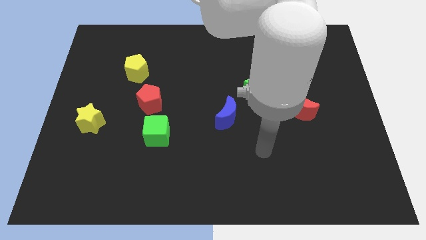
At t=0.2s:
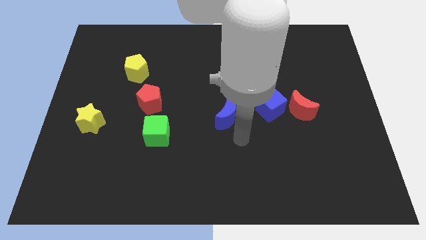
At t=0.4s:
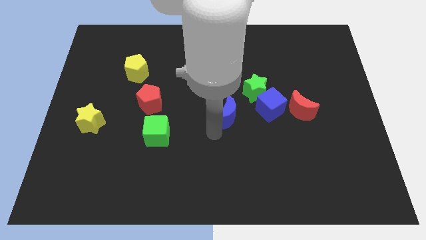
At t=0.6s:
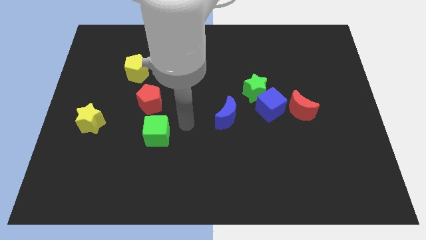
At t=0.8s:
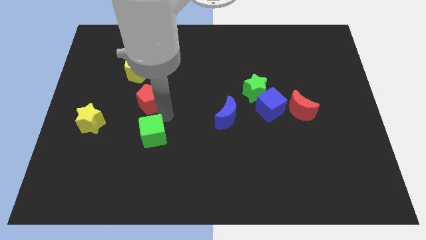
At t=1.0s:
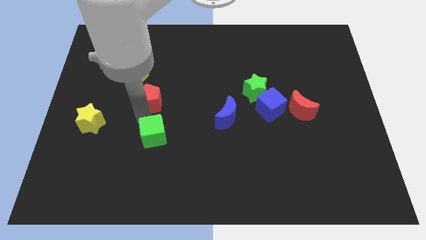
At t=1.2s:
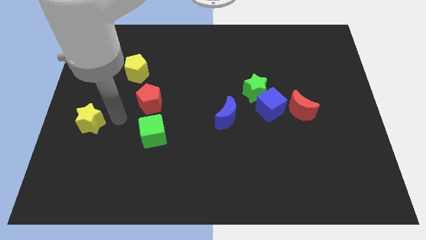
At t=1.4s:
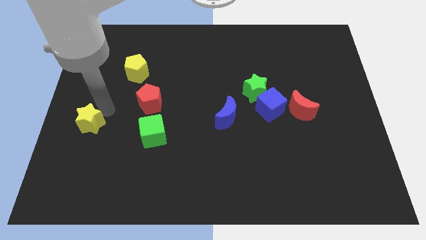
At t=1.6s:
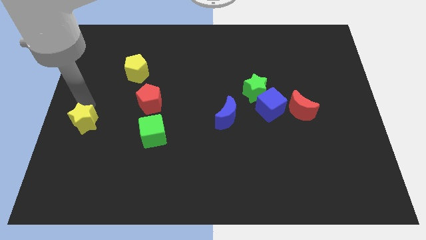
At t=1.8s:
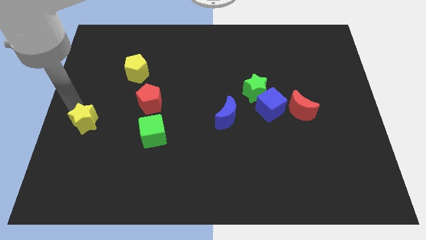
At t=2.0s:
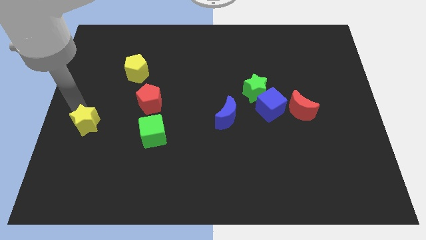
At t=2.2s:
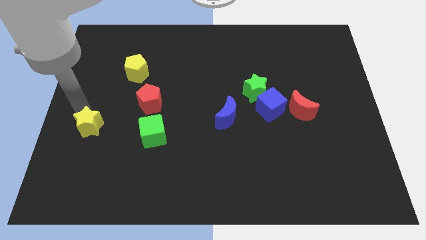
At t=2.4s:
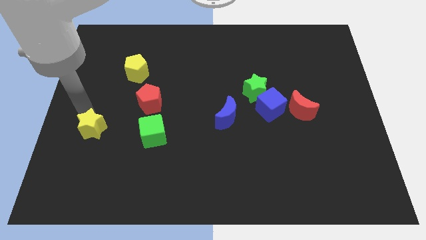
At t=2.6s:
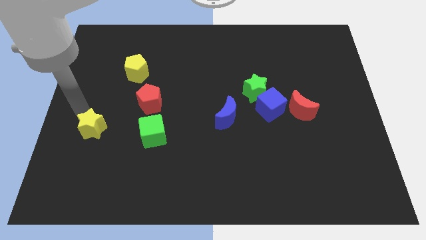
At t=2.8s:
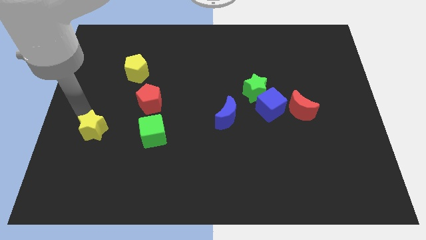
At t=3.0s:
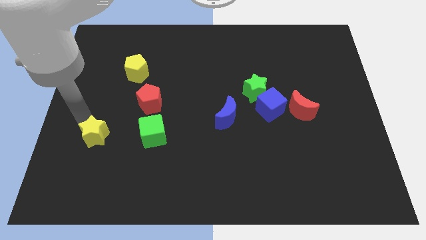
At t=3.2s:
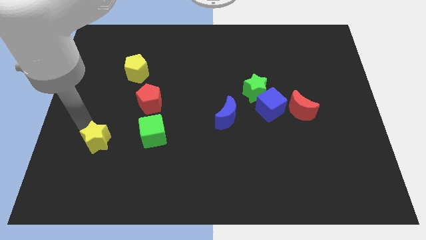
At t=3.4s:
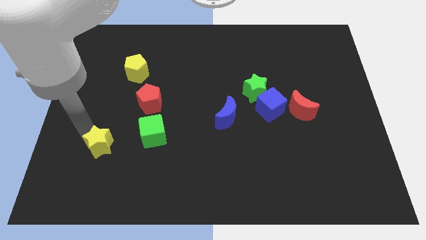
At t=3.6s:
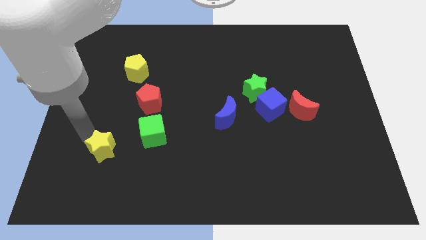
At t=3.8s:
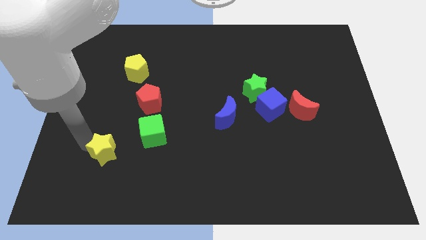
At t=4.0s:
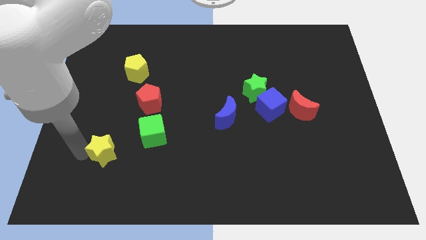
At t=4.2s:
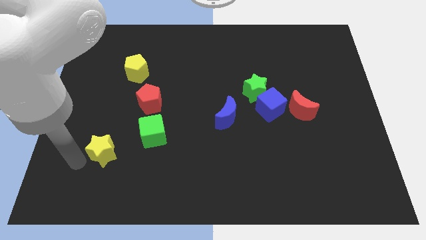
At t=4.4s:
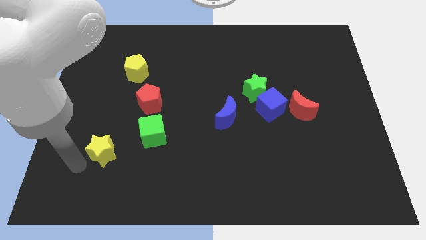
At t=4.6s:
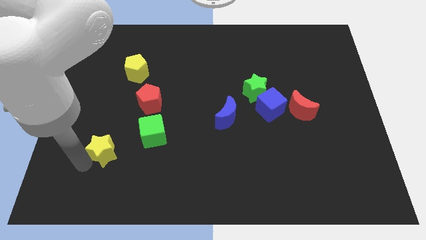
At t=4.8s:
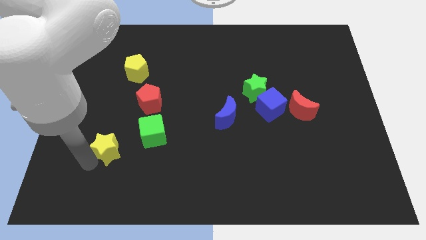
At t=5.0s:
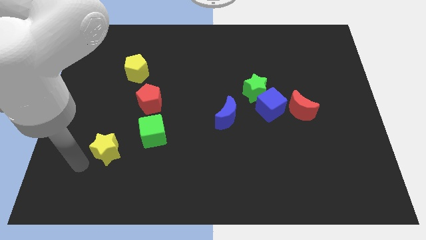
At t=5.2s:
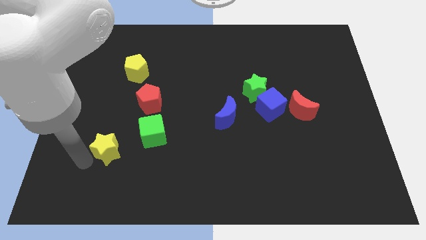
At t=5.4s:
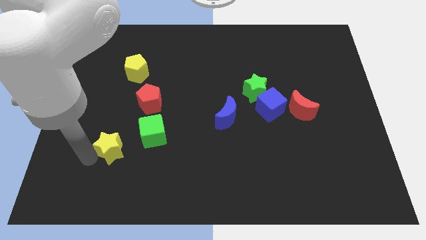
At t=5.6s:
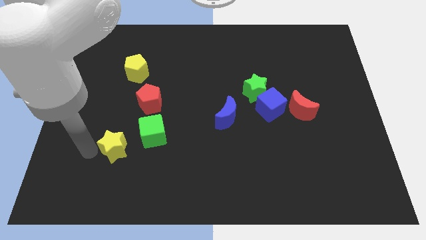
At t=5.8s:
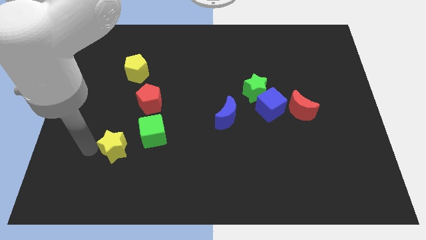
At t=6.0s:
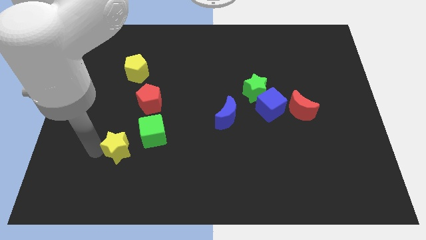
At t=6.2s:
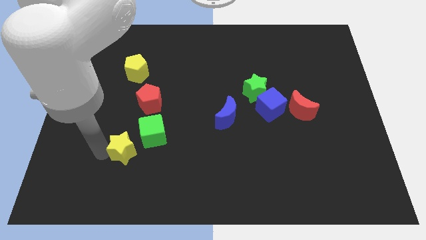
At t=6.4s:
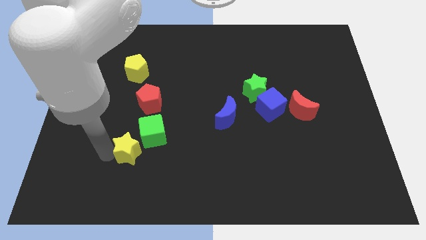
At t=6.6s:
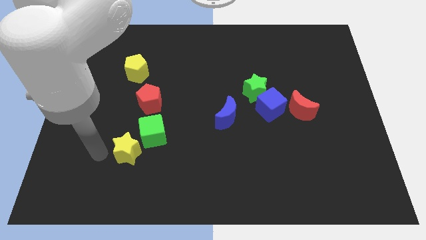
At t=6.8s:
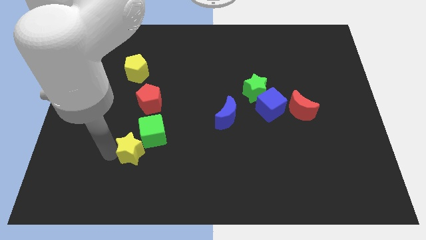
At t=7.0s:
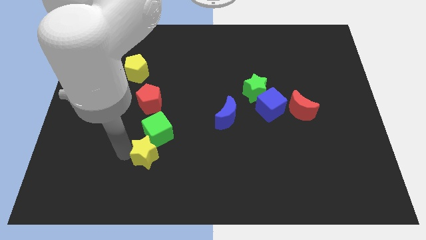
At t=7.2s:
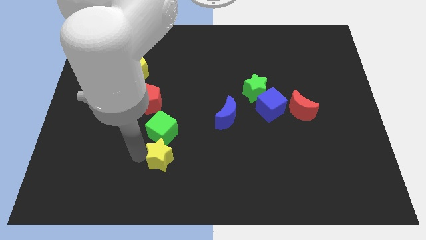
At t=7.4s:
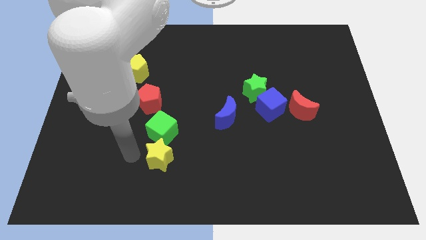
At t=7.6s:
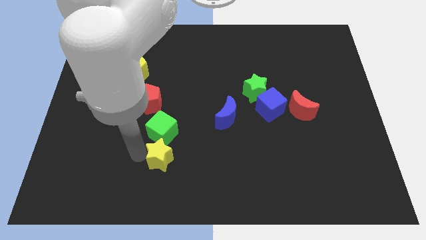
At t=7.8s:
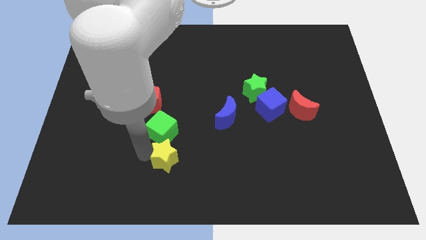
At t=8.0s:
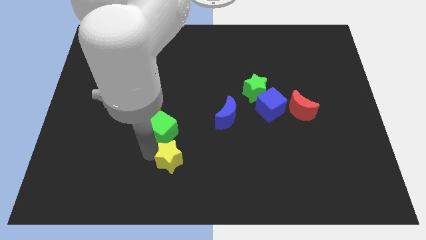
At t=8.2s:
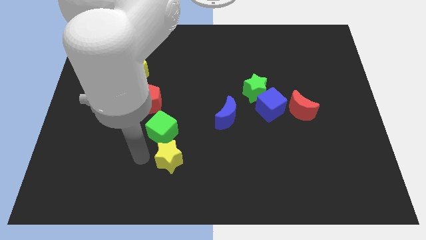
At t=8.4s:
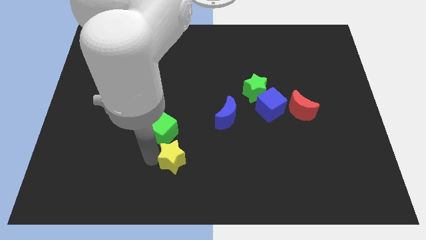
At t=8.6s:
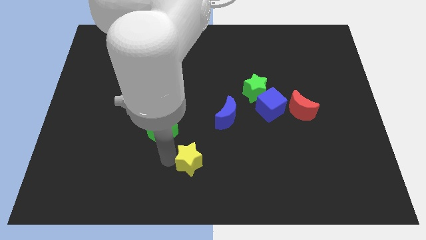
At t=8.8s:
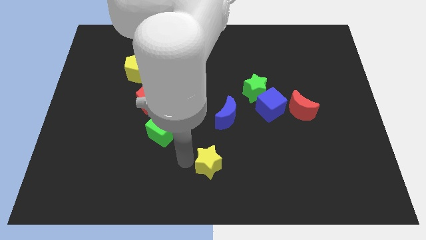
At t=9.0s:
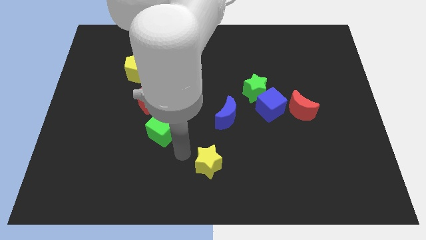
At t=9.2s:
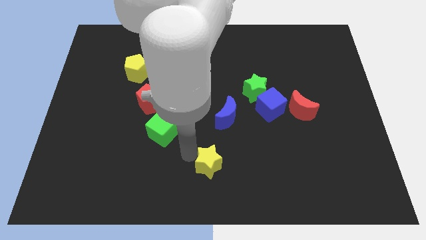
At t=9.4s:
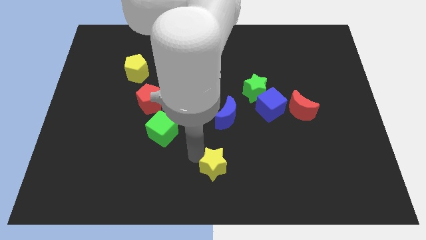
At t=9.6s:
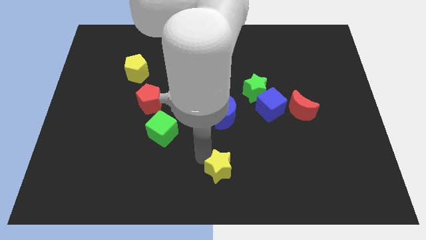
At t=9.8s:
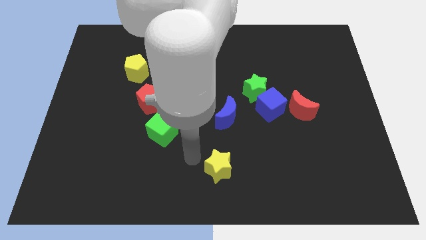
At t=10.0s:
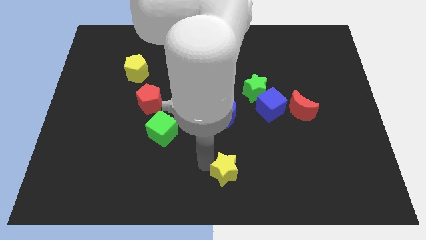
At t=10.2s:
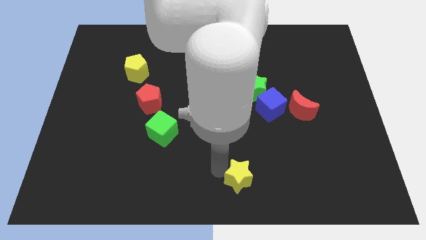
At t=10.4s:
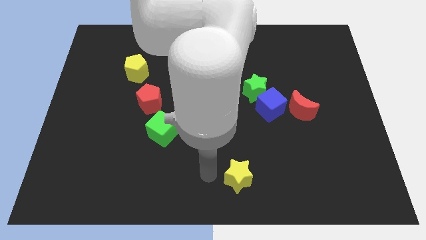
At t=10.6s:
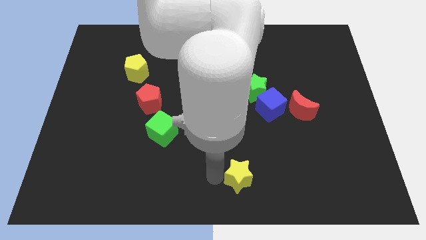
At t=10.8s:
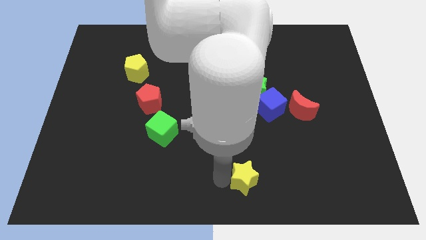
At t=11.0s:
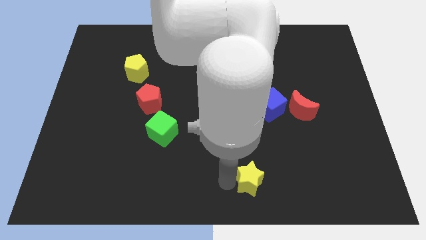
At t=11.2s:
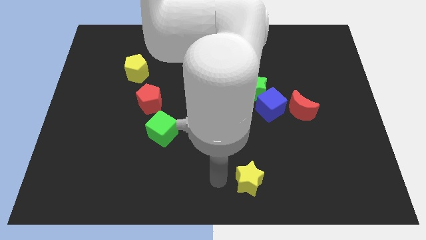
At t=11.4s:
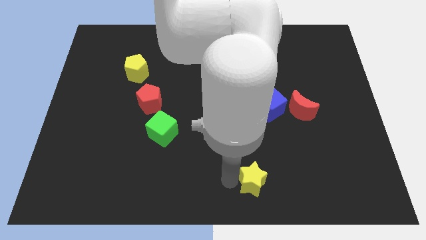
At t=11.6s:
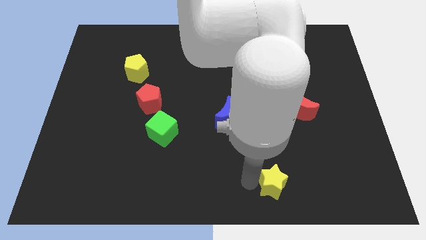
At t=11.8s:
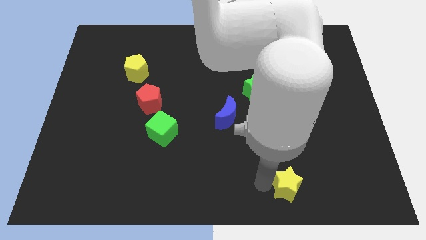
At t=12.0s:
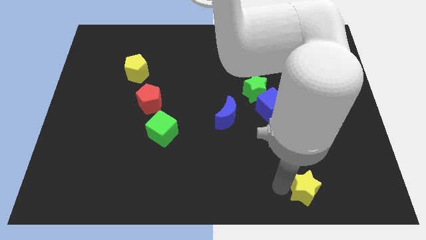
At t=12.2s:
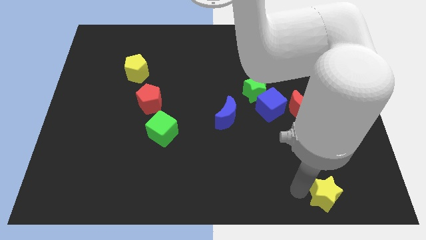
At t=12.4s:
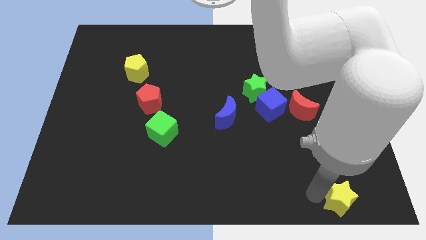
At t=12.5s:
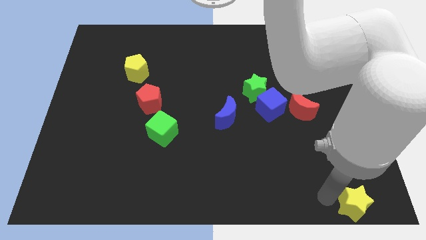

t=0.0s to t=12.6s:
push the yellow star to the bottom right corner

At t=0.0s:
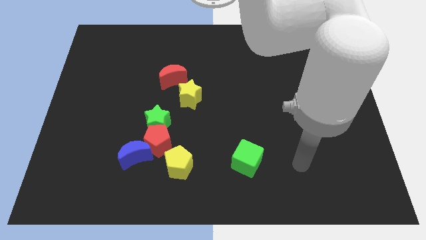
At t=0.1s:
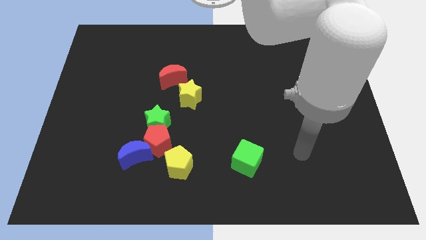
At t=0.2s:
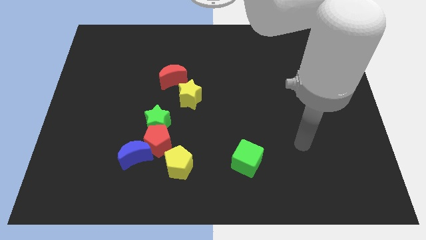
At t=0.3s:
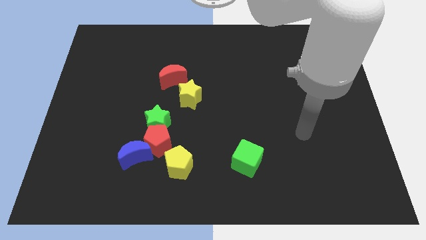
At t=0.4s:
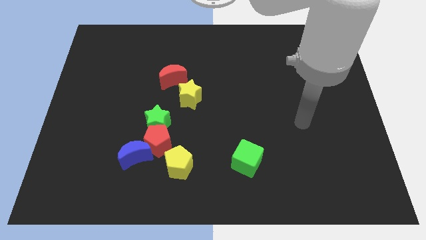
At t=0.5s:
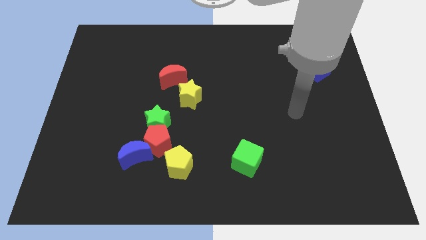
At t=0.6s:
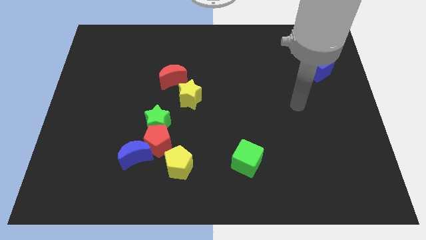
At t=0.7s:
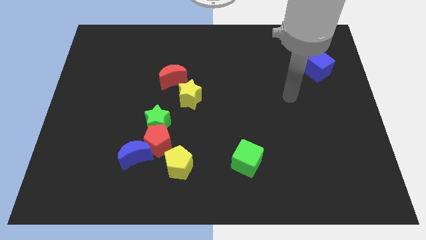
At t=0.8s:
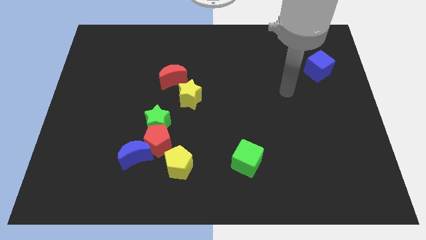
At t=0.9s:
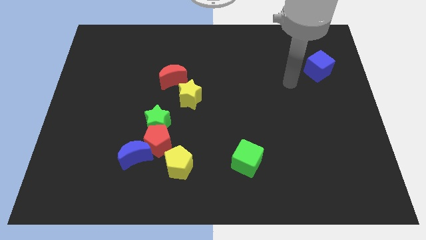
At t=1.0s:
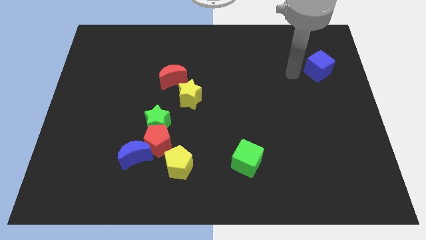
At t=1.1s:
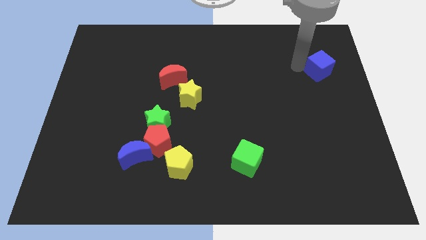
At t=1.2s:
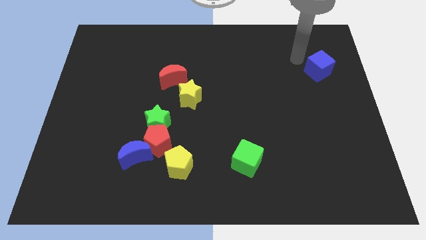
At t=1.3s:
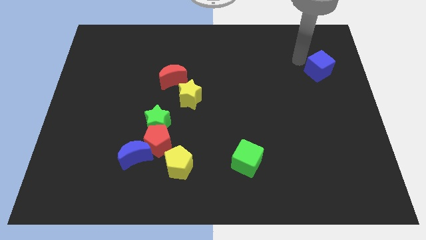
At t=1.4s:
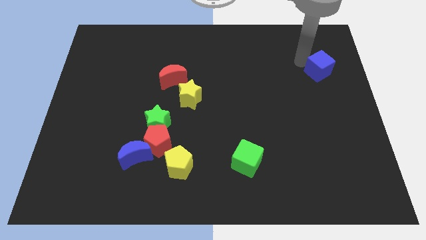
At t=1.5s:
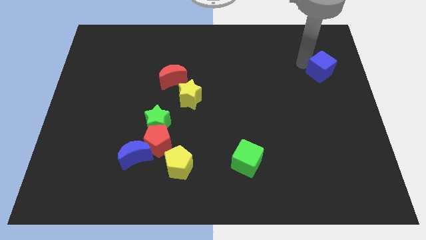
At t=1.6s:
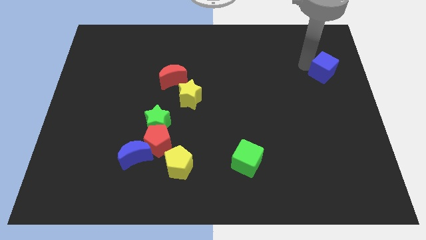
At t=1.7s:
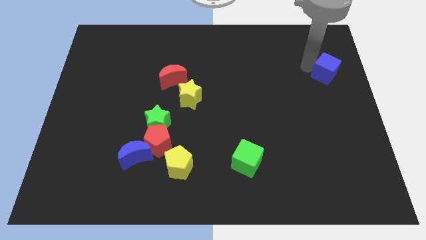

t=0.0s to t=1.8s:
slide the blue cube to the right side
